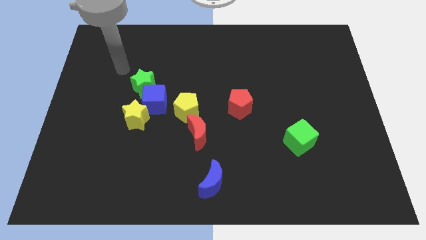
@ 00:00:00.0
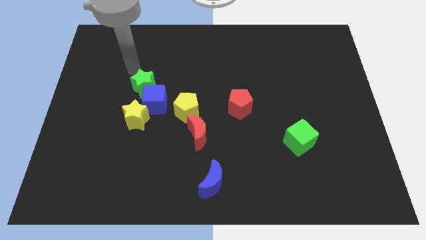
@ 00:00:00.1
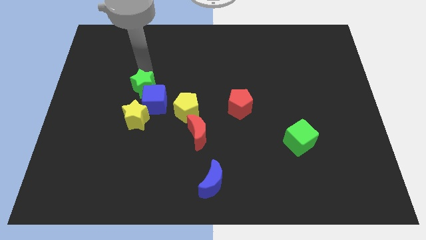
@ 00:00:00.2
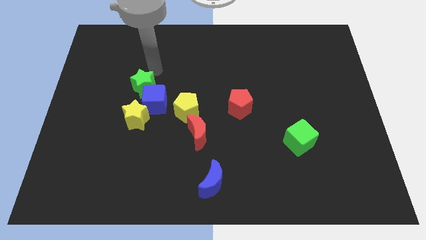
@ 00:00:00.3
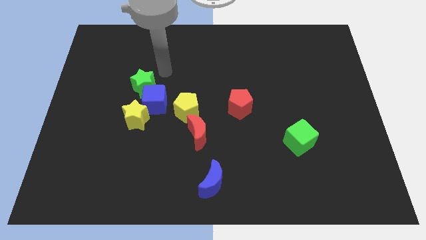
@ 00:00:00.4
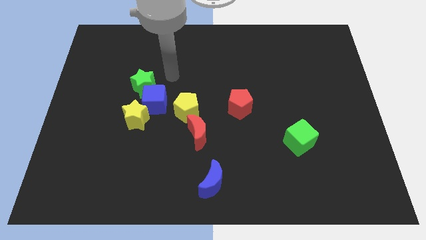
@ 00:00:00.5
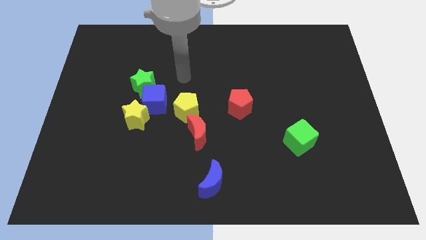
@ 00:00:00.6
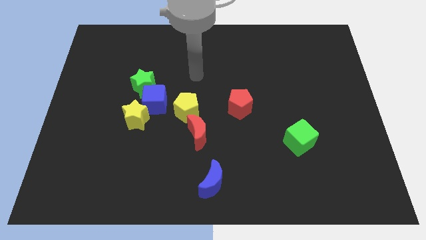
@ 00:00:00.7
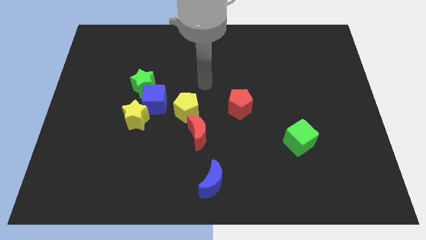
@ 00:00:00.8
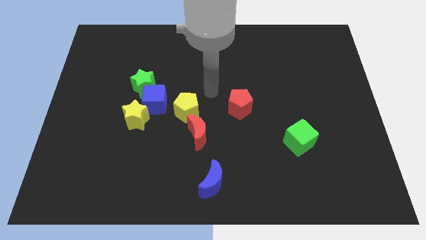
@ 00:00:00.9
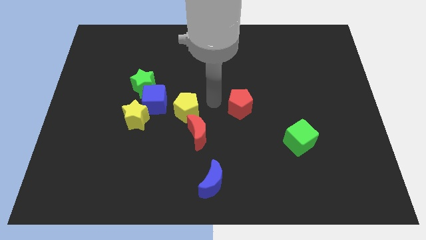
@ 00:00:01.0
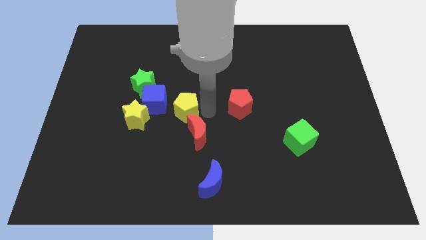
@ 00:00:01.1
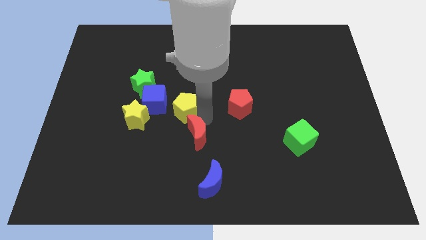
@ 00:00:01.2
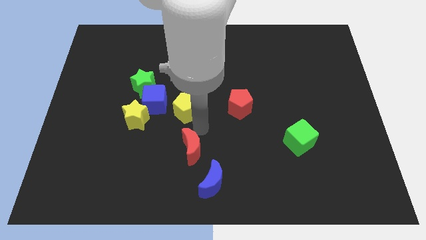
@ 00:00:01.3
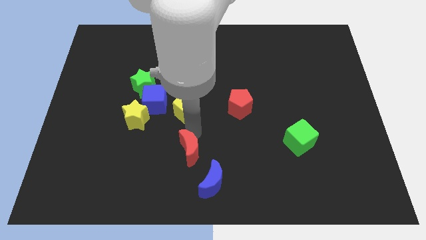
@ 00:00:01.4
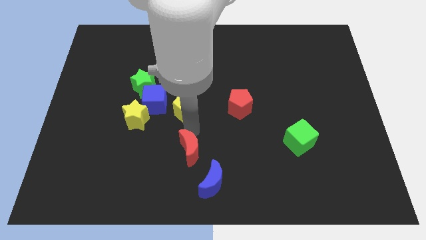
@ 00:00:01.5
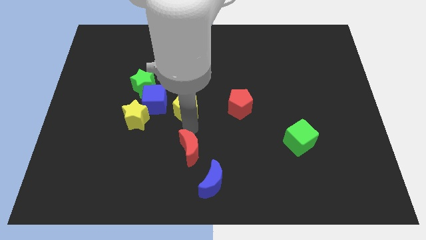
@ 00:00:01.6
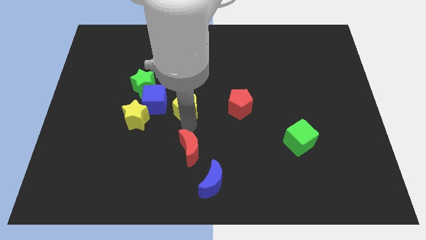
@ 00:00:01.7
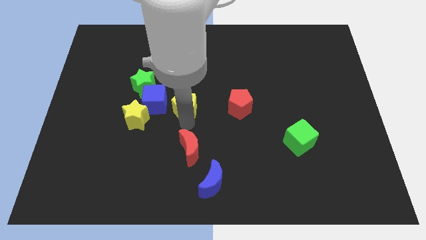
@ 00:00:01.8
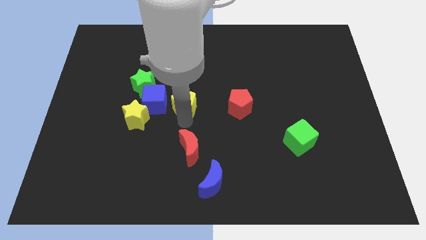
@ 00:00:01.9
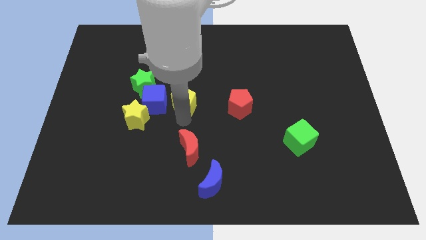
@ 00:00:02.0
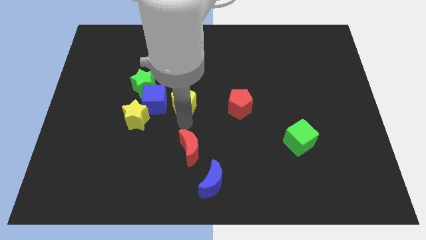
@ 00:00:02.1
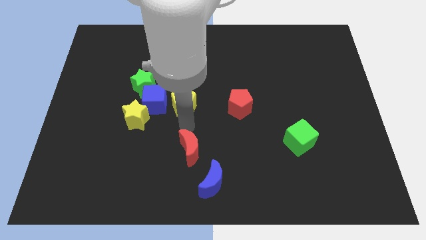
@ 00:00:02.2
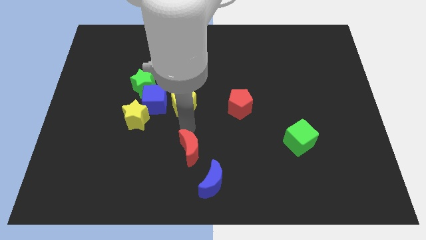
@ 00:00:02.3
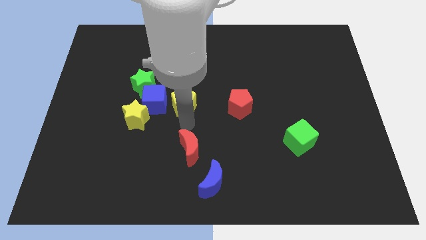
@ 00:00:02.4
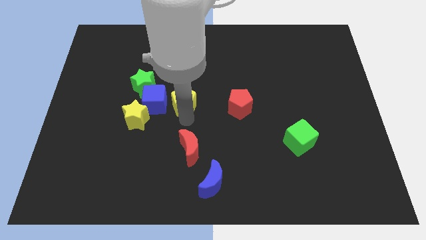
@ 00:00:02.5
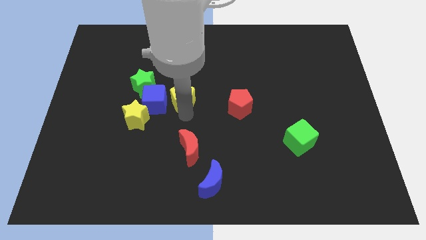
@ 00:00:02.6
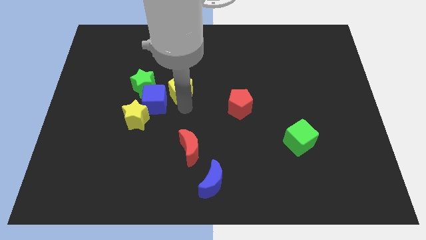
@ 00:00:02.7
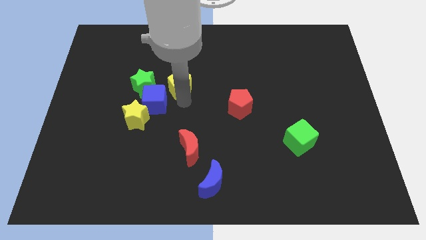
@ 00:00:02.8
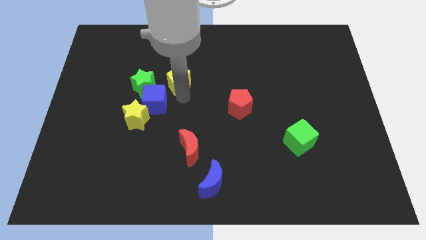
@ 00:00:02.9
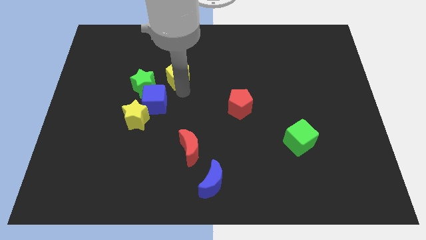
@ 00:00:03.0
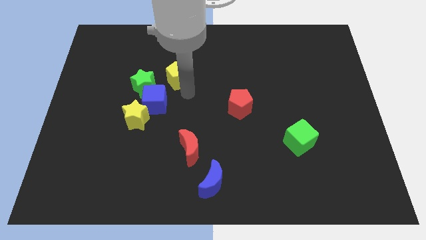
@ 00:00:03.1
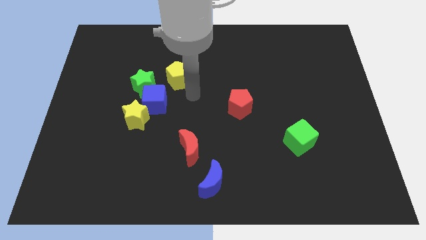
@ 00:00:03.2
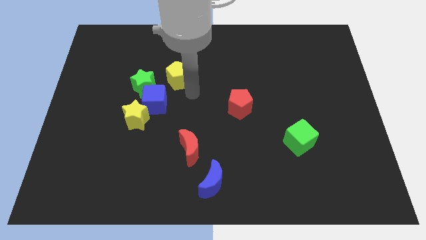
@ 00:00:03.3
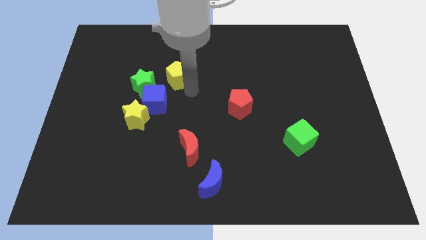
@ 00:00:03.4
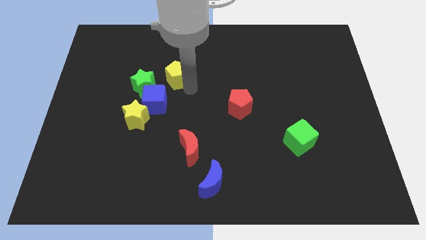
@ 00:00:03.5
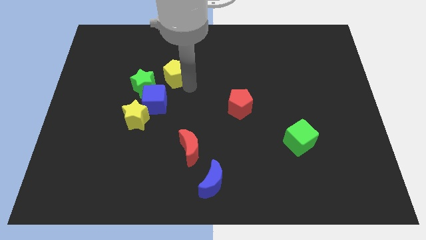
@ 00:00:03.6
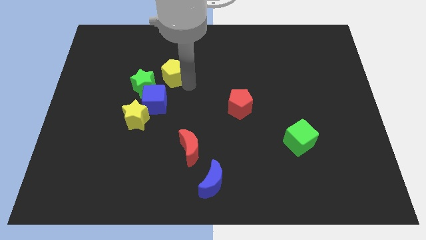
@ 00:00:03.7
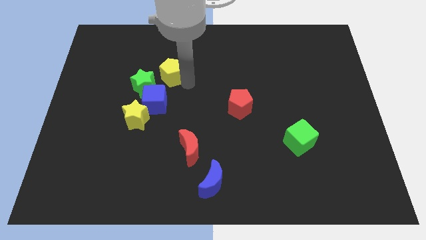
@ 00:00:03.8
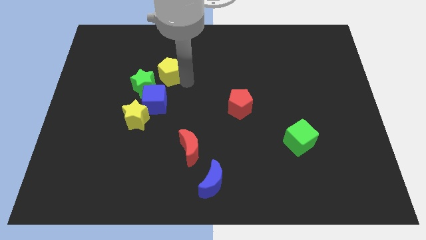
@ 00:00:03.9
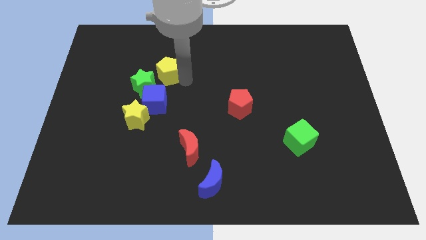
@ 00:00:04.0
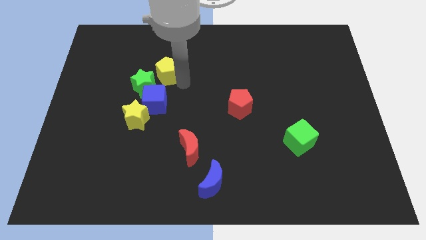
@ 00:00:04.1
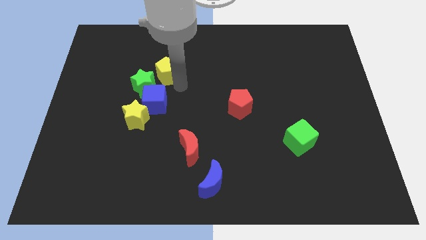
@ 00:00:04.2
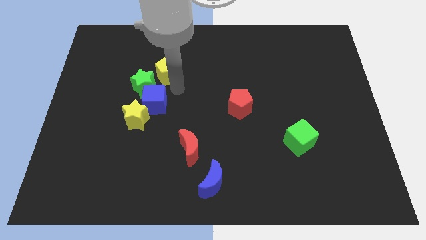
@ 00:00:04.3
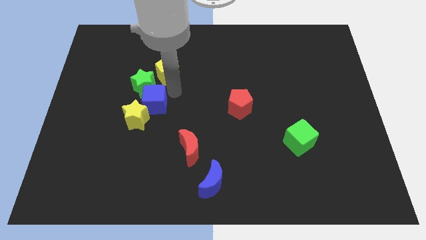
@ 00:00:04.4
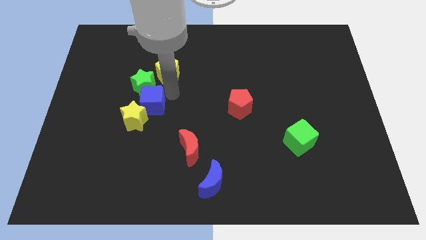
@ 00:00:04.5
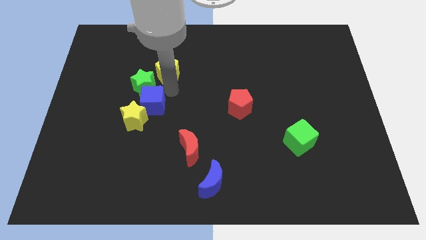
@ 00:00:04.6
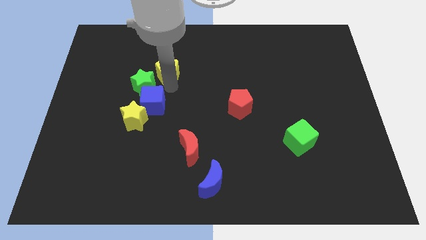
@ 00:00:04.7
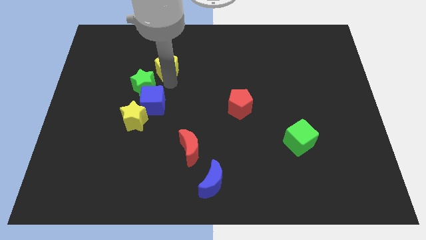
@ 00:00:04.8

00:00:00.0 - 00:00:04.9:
put the yellow pentagon to the top side of the green star
